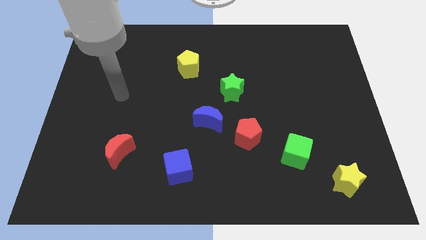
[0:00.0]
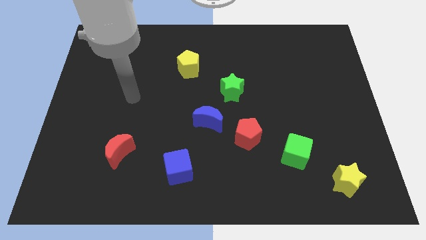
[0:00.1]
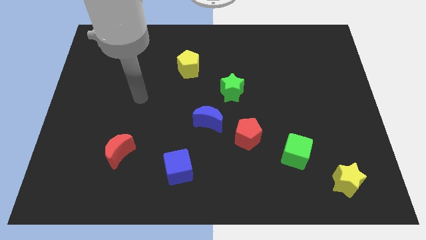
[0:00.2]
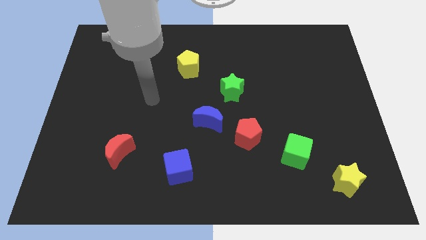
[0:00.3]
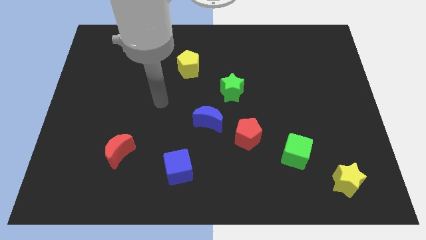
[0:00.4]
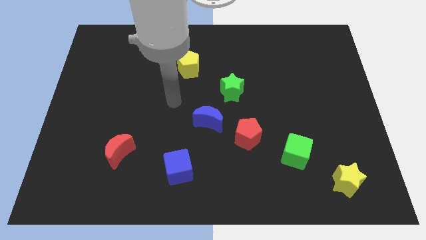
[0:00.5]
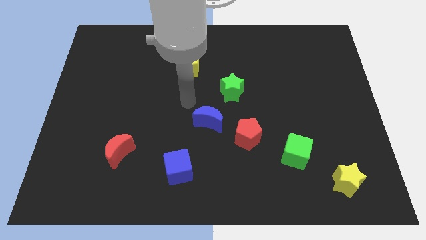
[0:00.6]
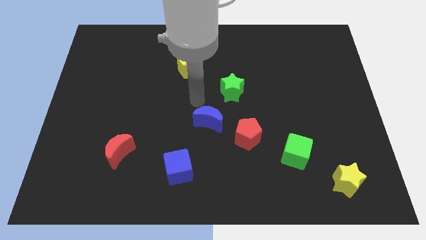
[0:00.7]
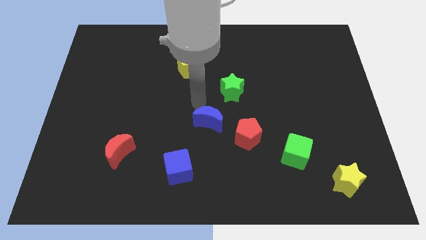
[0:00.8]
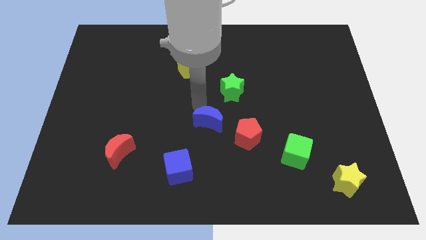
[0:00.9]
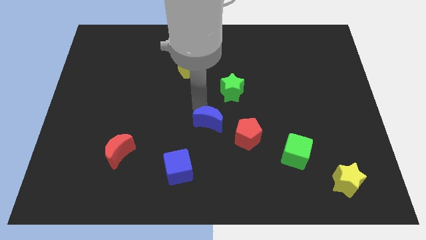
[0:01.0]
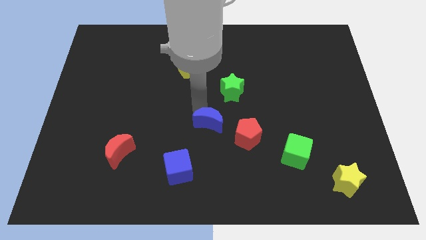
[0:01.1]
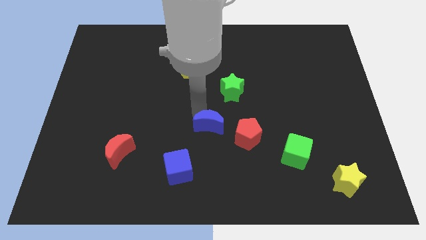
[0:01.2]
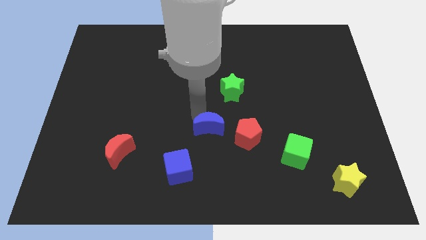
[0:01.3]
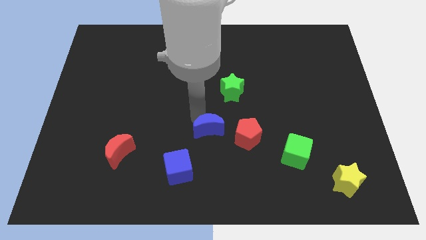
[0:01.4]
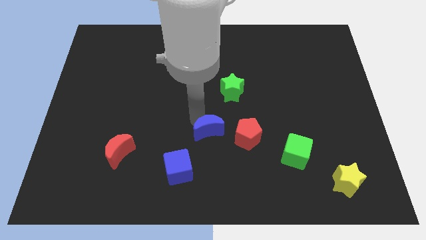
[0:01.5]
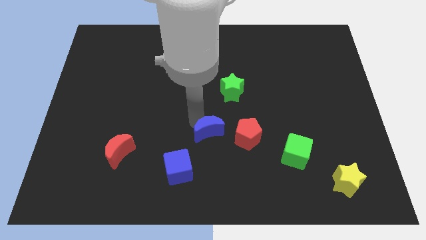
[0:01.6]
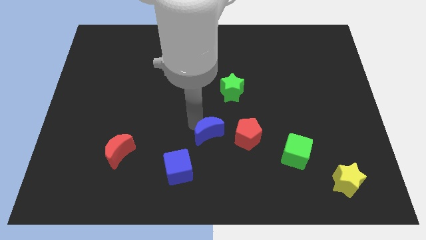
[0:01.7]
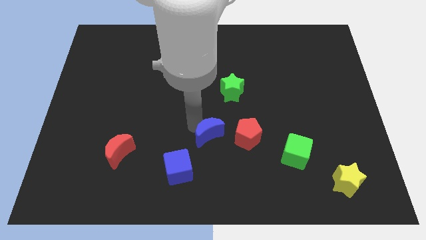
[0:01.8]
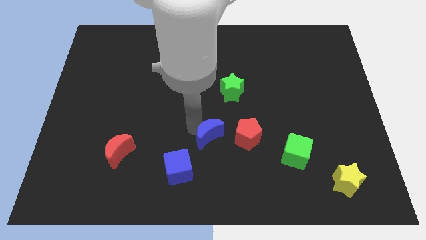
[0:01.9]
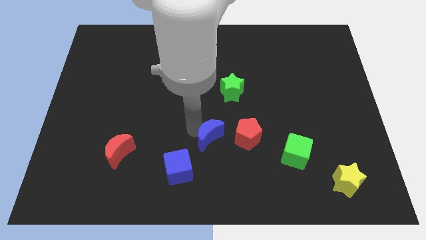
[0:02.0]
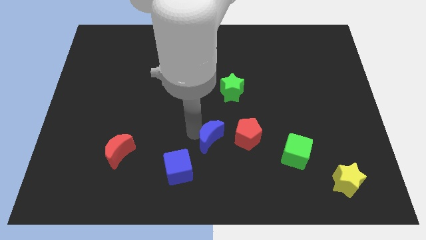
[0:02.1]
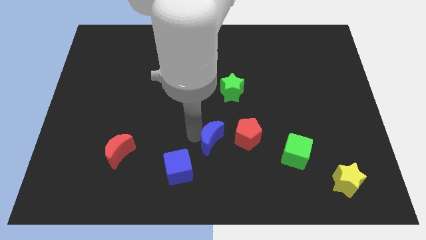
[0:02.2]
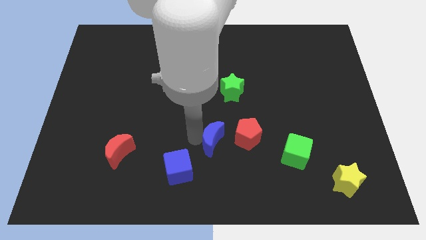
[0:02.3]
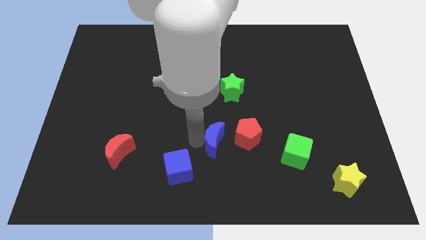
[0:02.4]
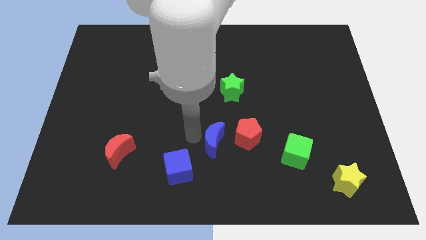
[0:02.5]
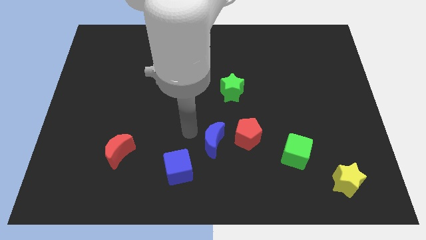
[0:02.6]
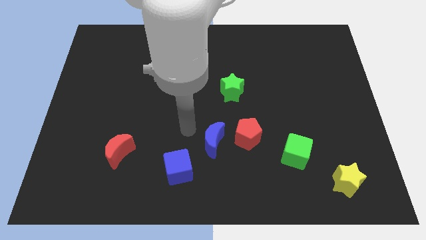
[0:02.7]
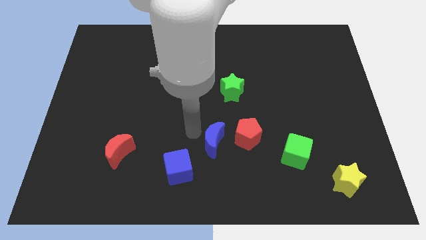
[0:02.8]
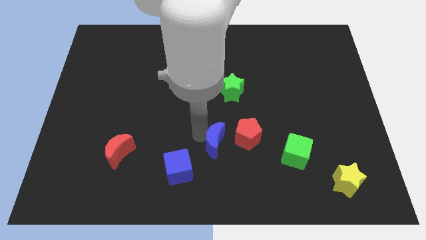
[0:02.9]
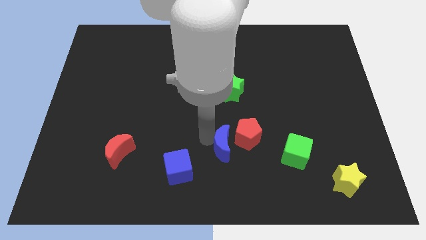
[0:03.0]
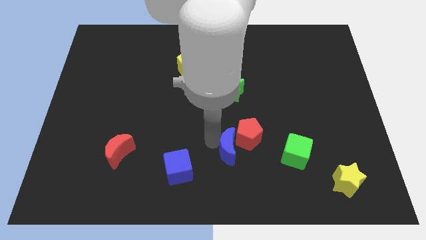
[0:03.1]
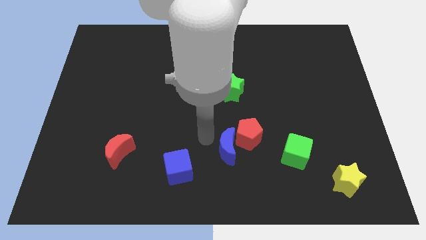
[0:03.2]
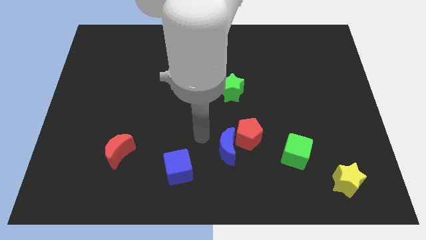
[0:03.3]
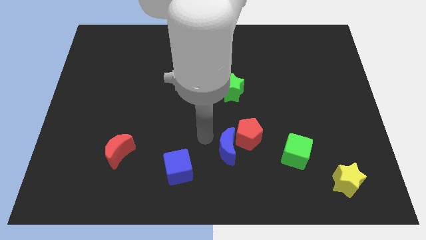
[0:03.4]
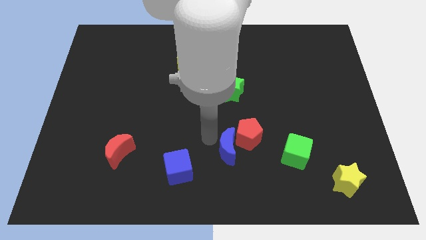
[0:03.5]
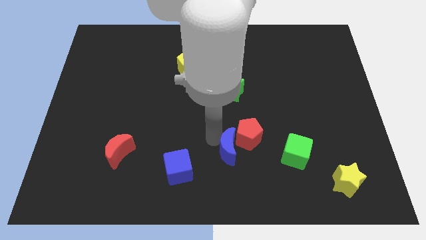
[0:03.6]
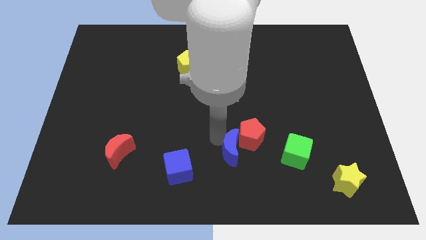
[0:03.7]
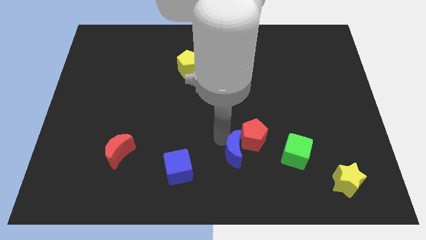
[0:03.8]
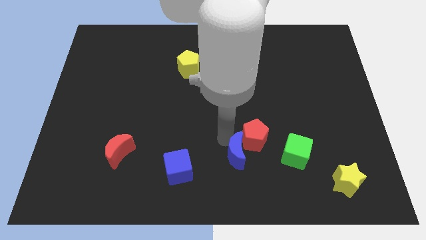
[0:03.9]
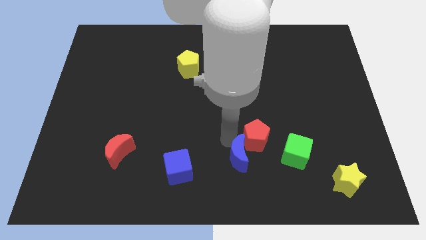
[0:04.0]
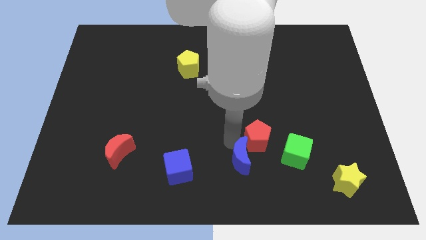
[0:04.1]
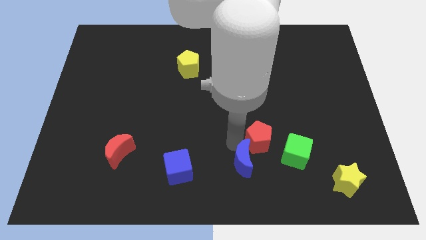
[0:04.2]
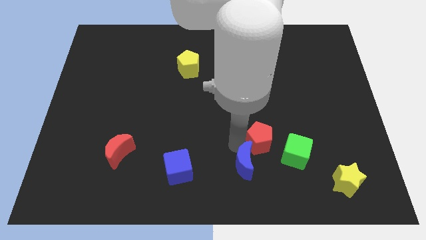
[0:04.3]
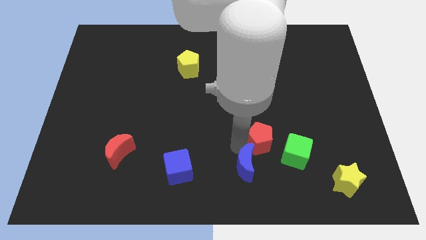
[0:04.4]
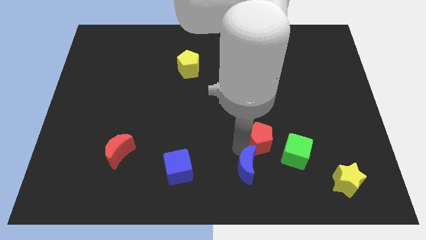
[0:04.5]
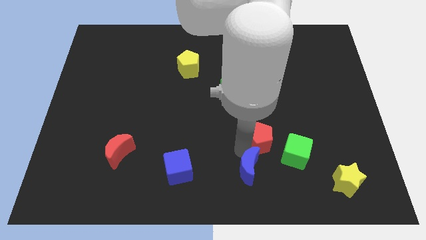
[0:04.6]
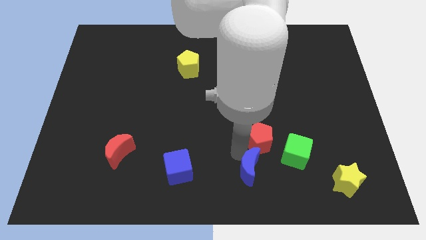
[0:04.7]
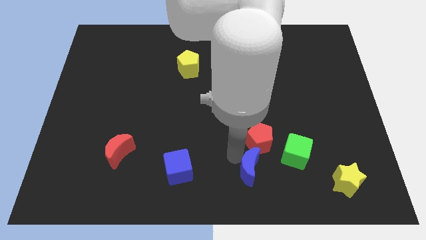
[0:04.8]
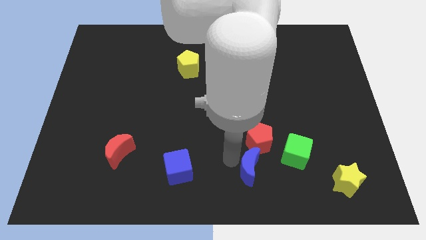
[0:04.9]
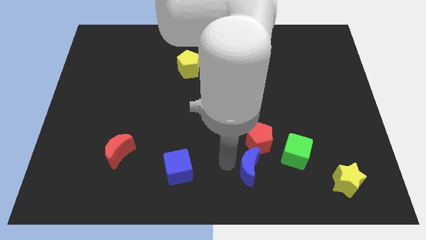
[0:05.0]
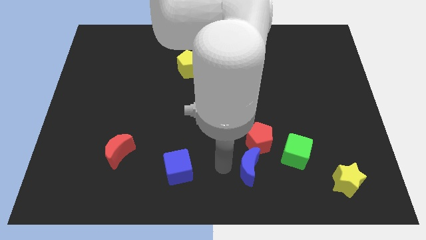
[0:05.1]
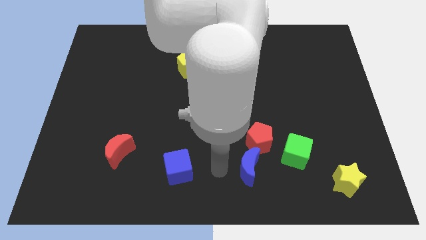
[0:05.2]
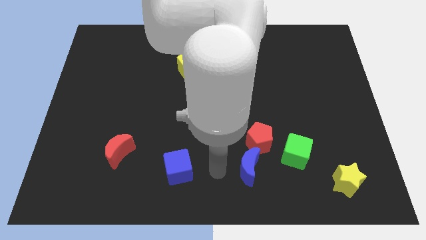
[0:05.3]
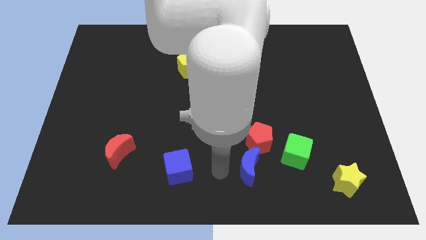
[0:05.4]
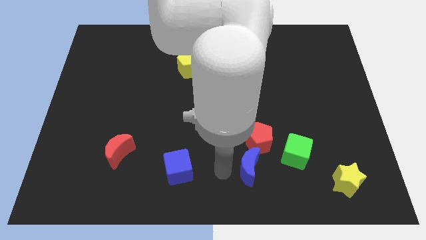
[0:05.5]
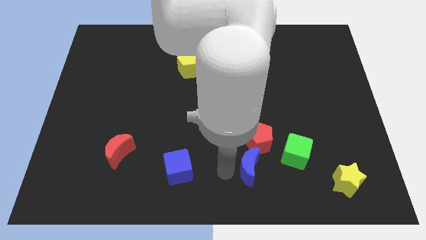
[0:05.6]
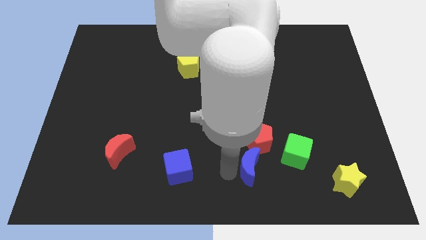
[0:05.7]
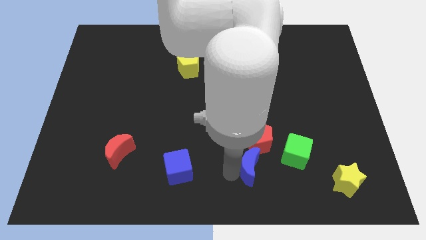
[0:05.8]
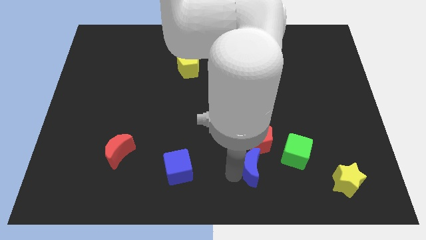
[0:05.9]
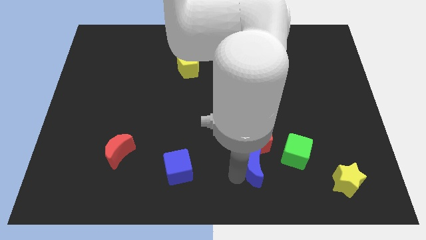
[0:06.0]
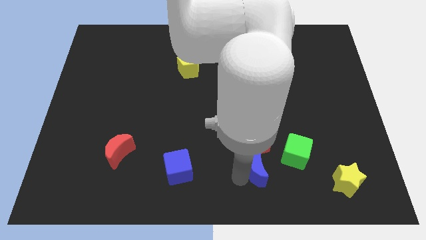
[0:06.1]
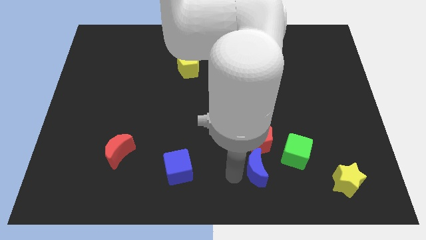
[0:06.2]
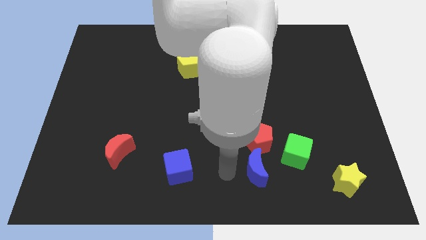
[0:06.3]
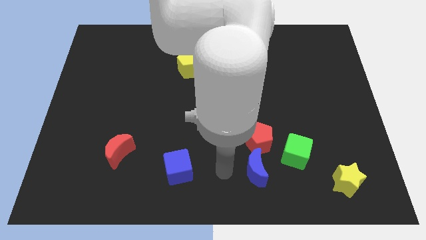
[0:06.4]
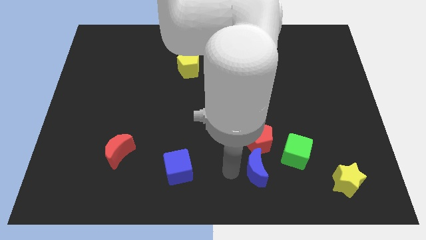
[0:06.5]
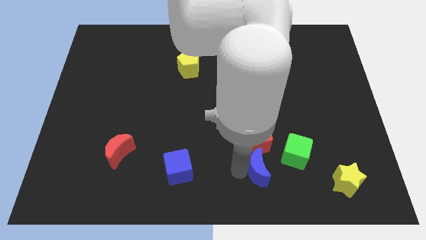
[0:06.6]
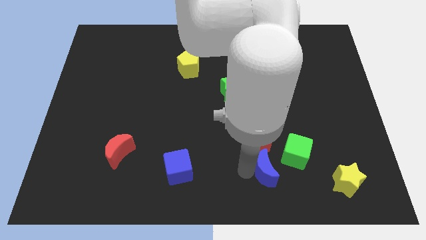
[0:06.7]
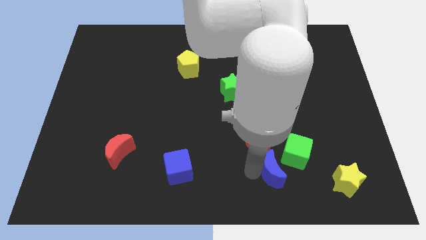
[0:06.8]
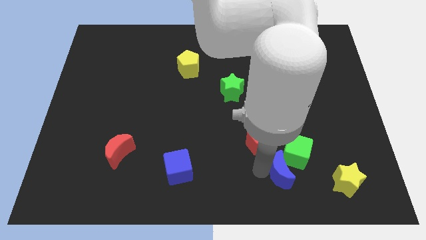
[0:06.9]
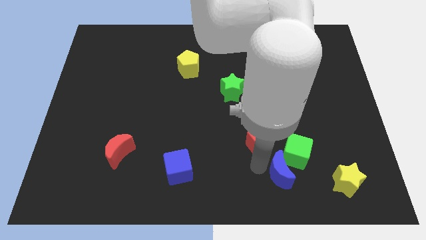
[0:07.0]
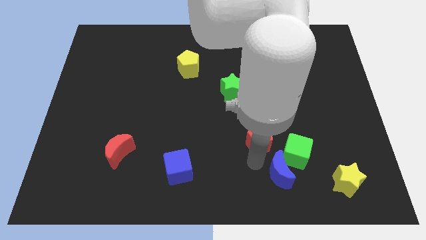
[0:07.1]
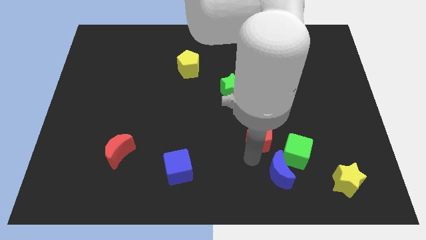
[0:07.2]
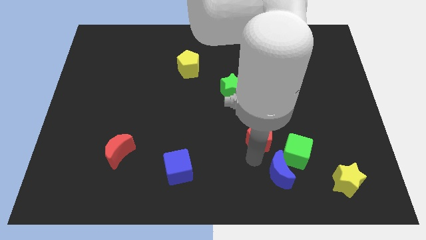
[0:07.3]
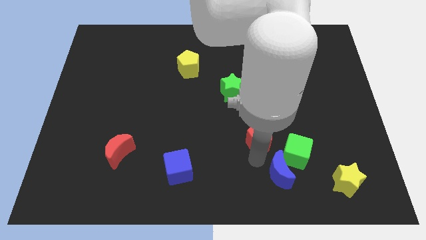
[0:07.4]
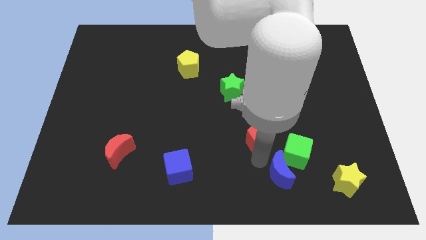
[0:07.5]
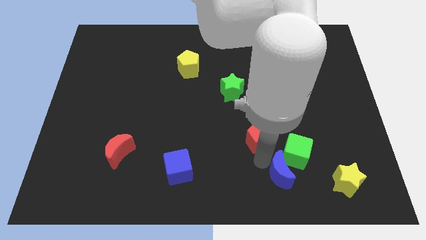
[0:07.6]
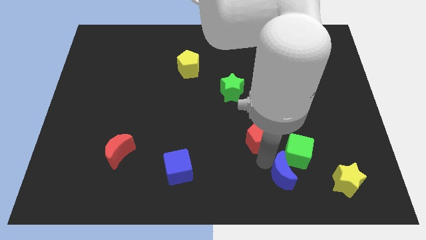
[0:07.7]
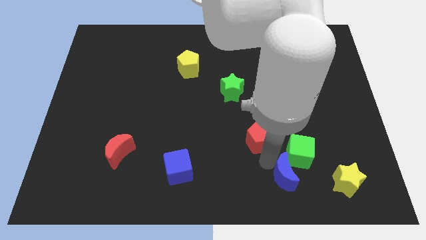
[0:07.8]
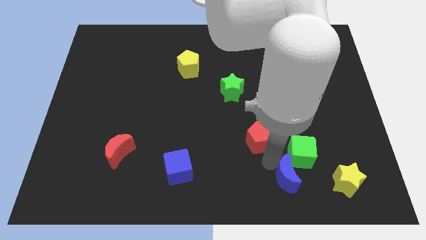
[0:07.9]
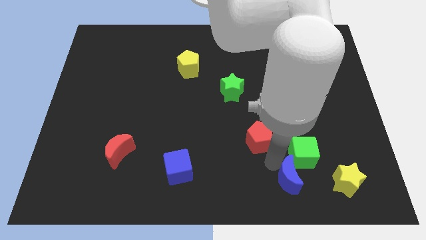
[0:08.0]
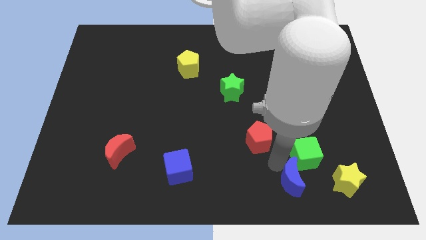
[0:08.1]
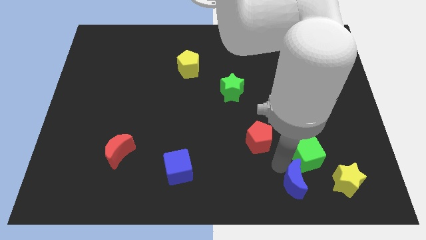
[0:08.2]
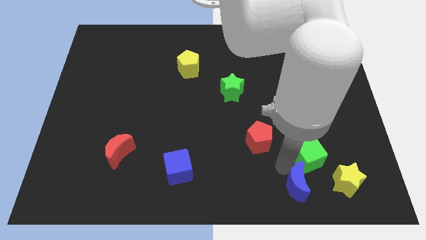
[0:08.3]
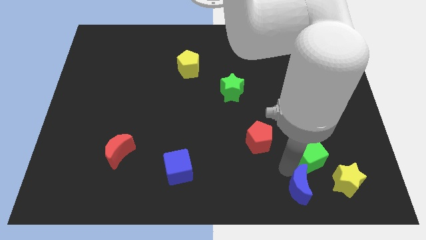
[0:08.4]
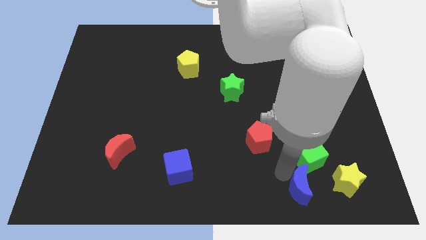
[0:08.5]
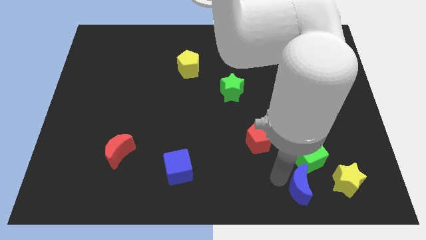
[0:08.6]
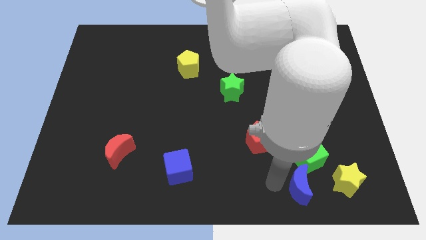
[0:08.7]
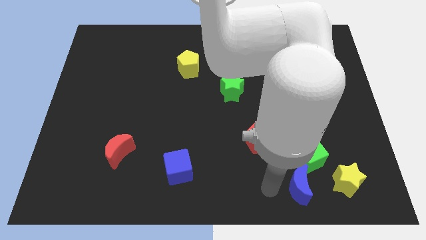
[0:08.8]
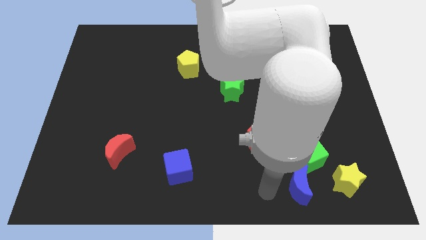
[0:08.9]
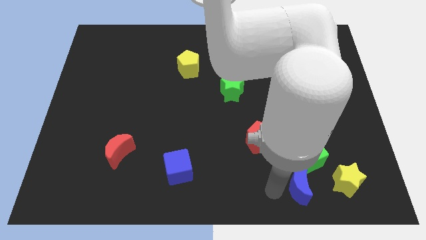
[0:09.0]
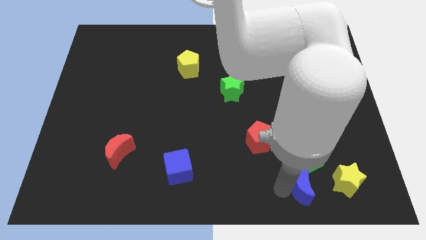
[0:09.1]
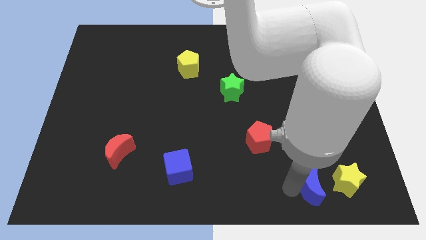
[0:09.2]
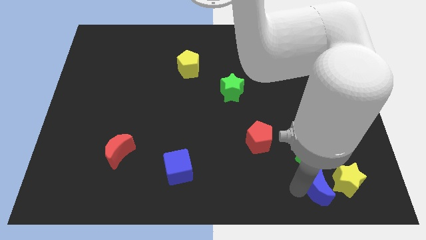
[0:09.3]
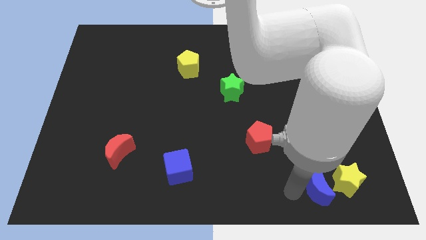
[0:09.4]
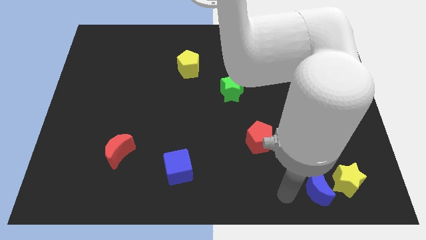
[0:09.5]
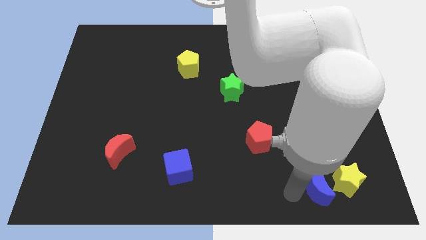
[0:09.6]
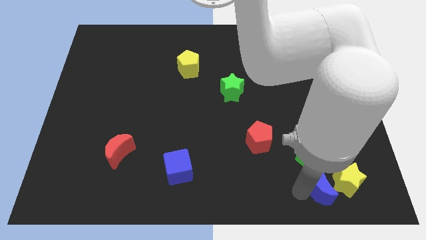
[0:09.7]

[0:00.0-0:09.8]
move the blue moon next to the yellow star
